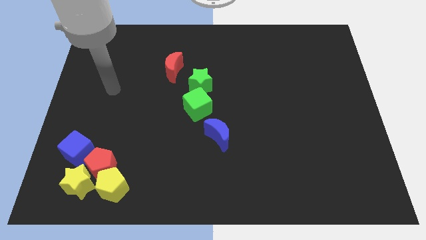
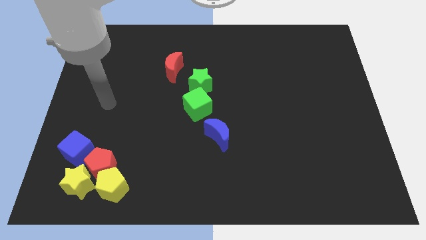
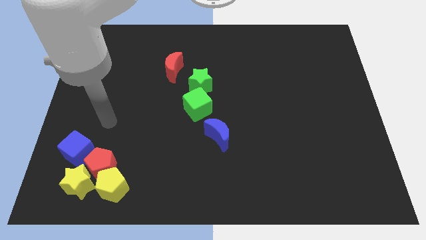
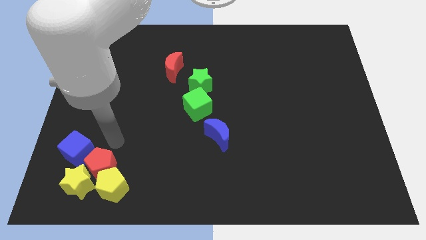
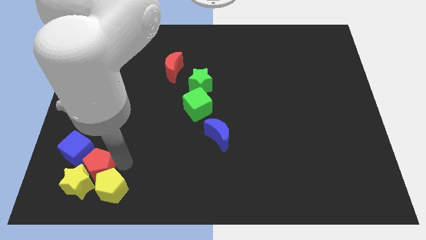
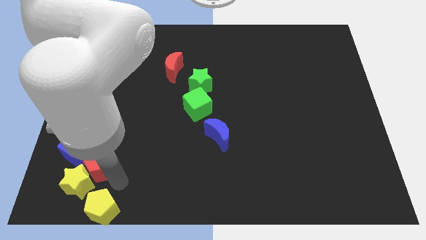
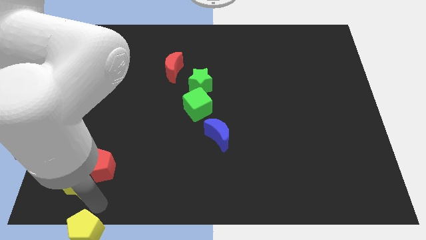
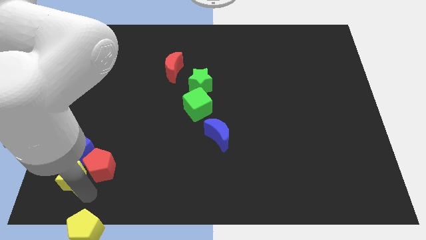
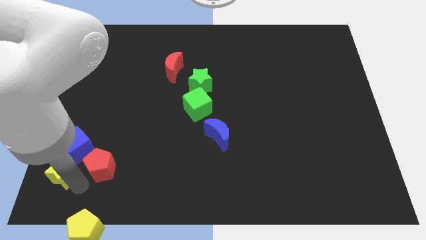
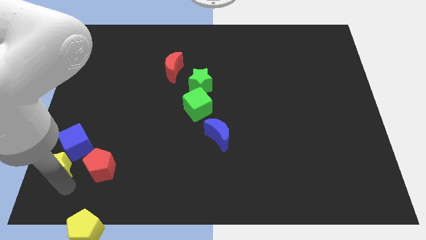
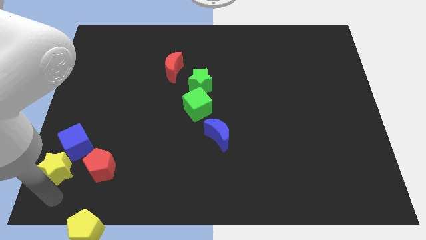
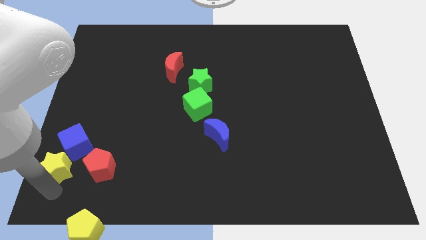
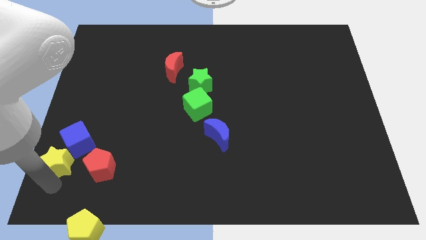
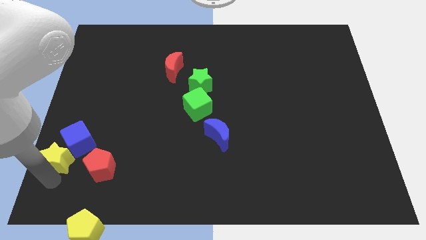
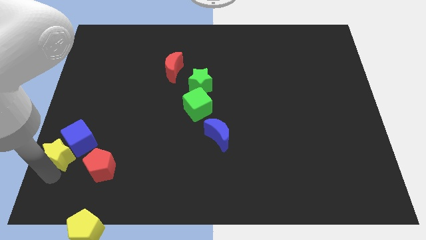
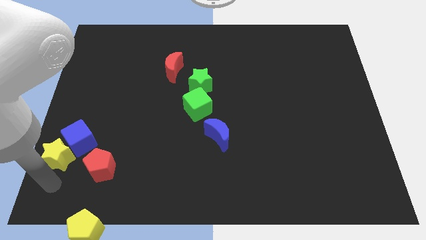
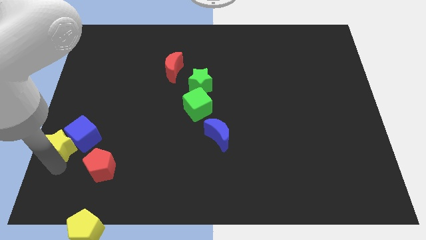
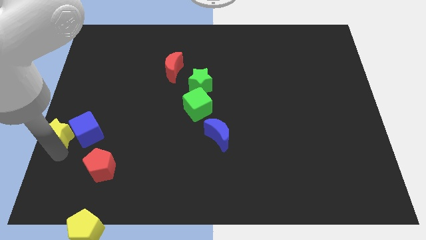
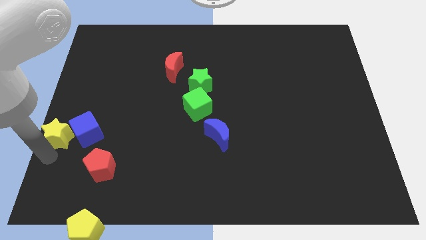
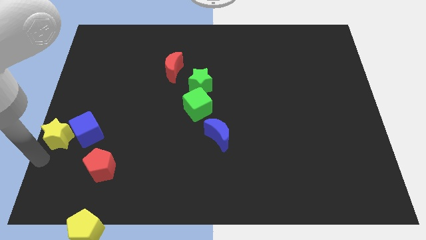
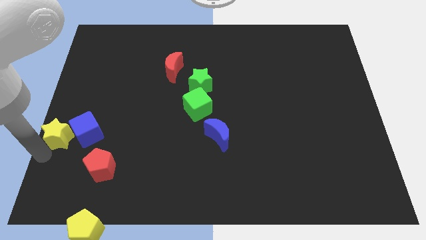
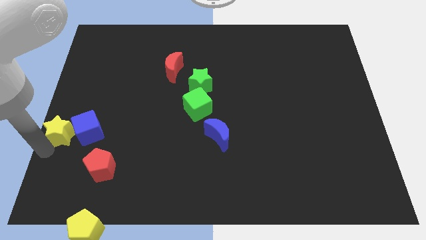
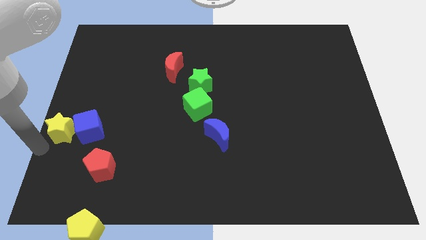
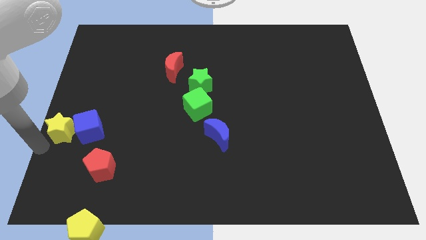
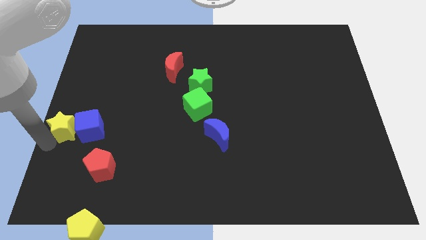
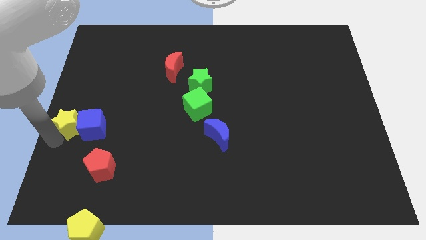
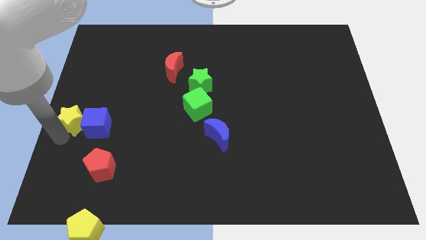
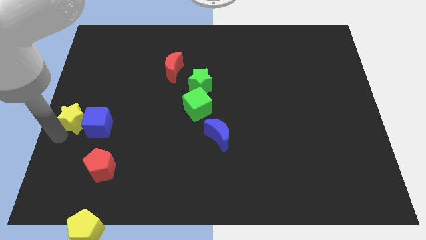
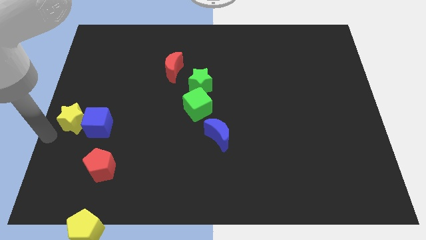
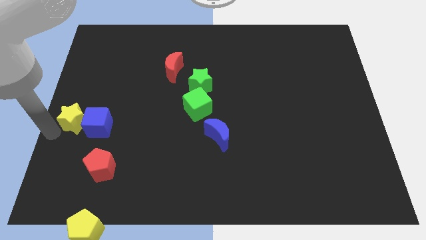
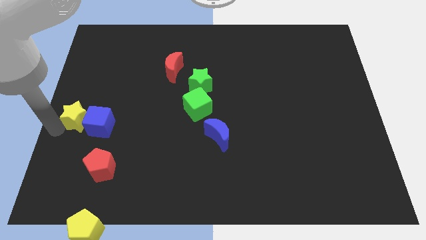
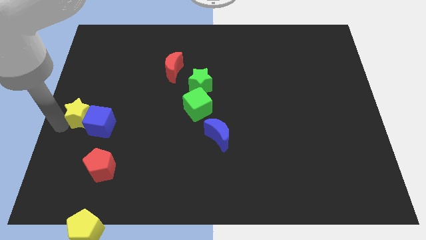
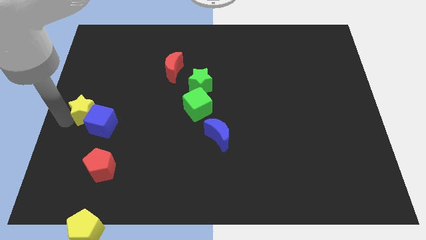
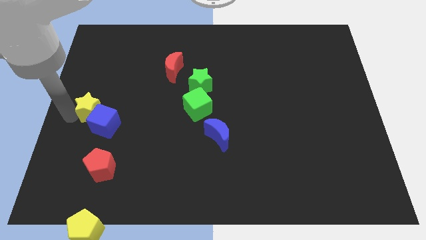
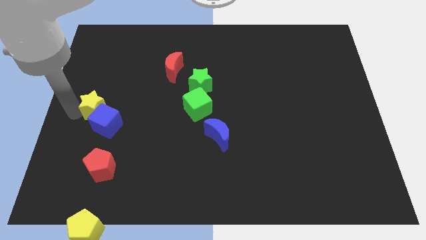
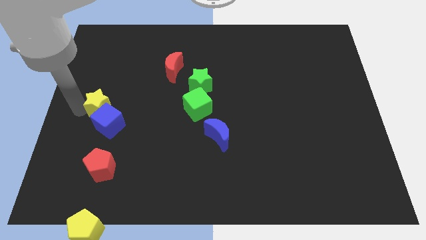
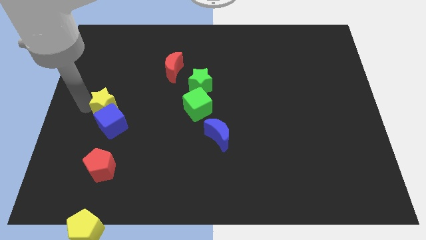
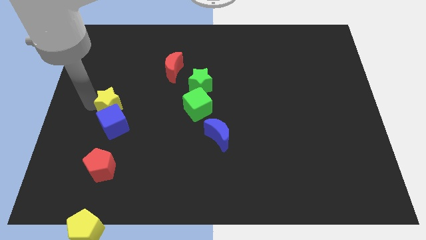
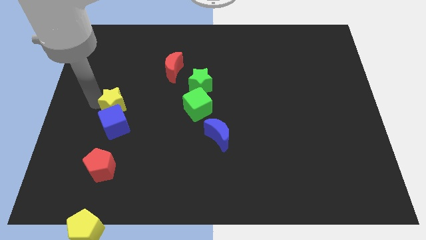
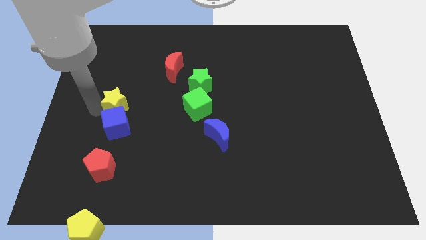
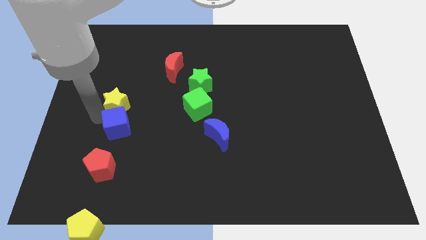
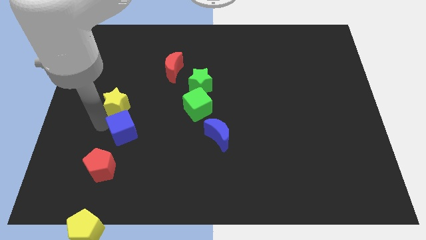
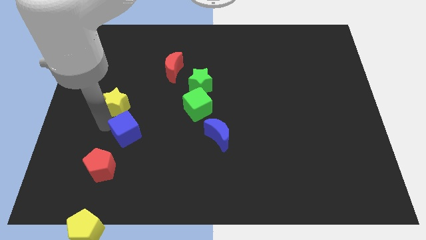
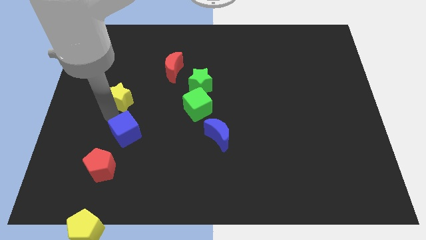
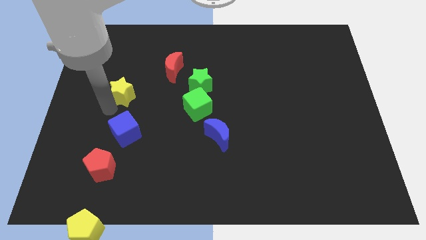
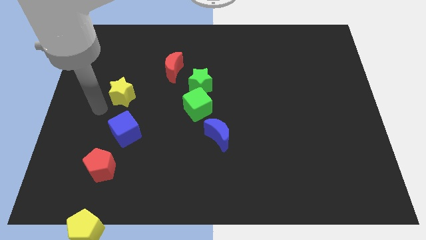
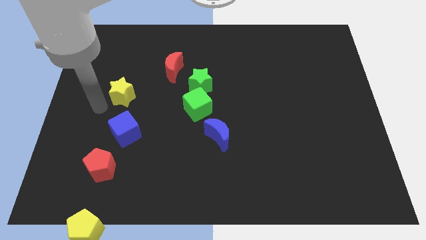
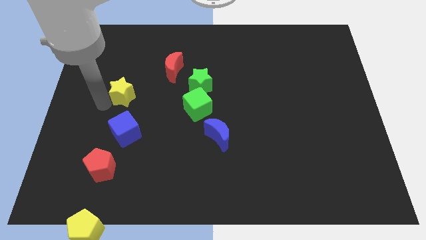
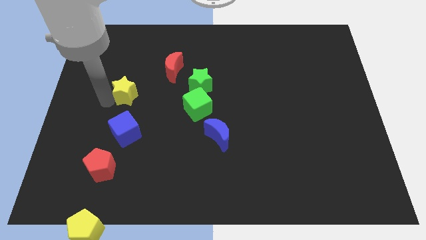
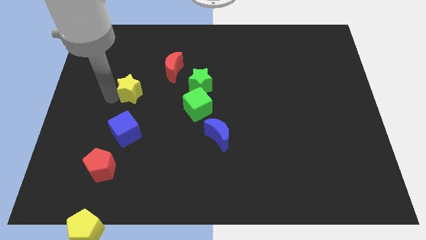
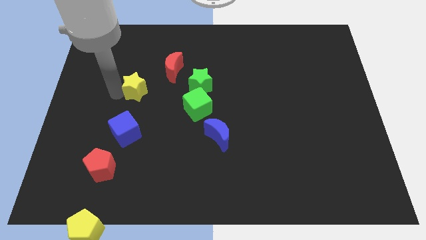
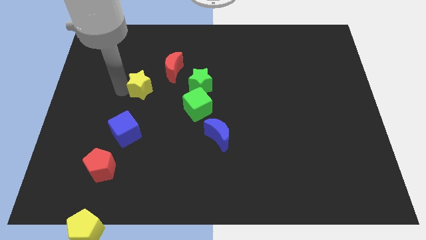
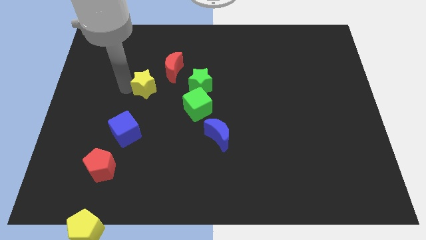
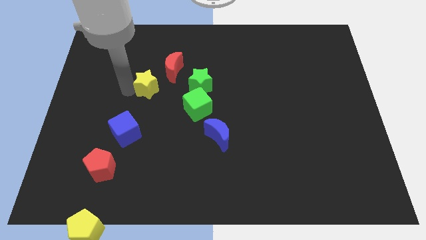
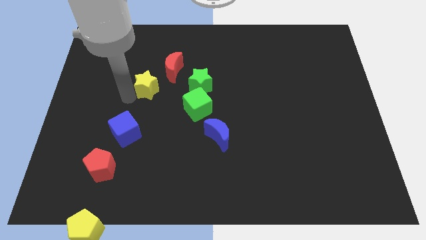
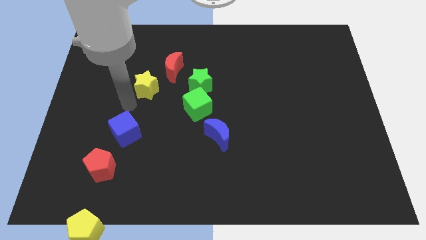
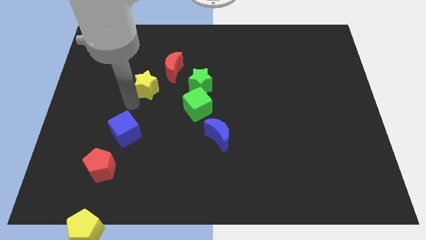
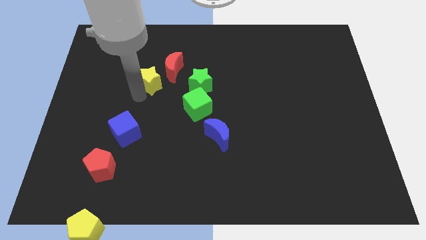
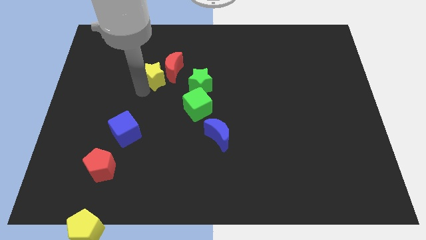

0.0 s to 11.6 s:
put the yellow star next to the red moon

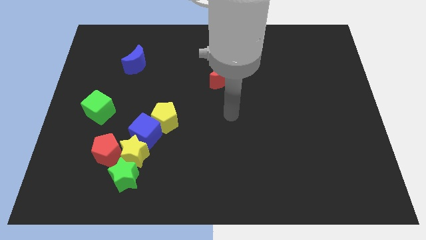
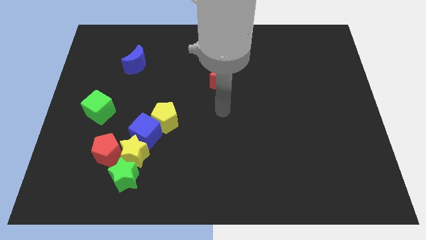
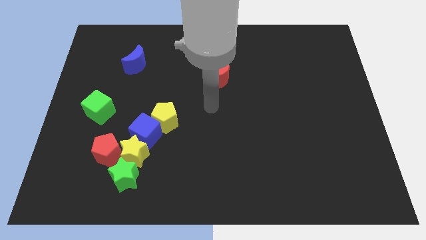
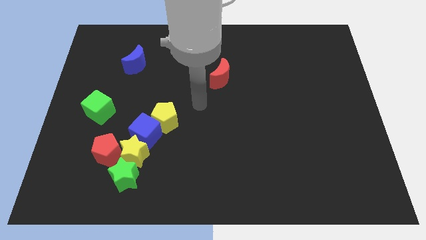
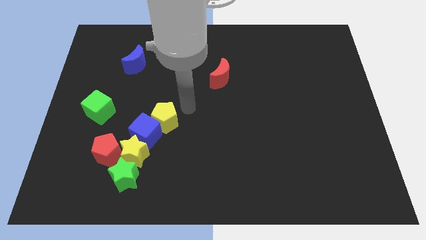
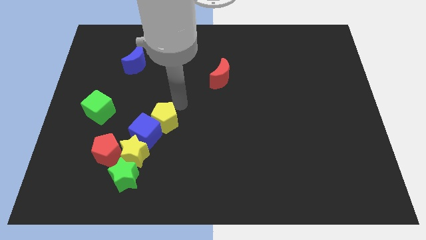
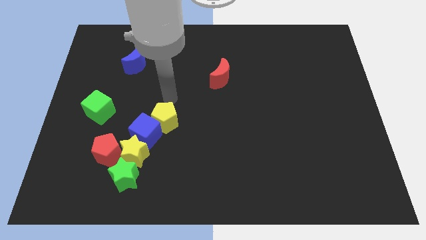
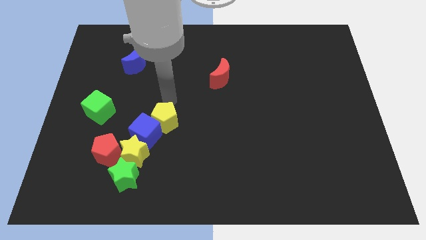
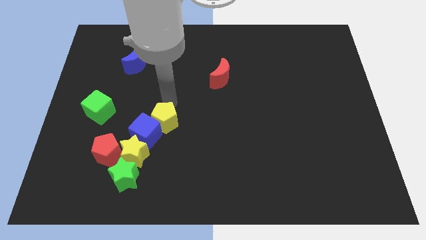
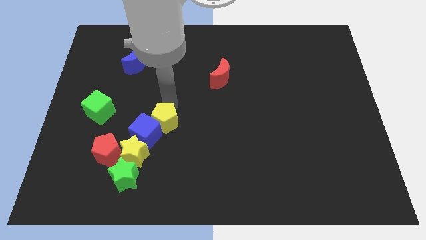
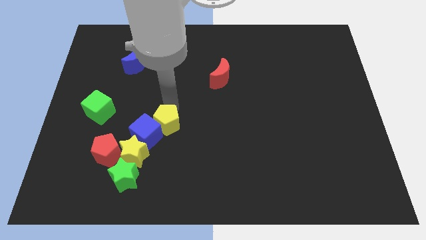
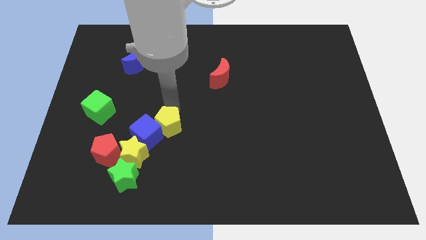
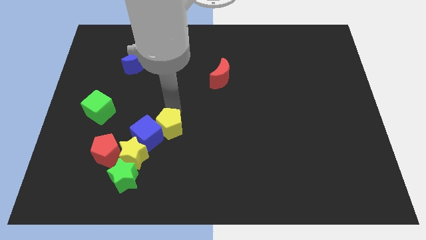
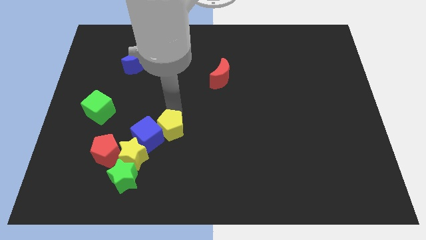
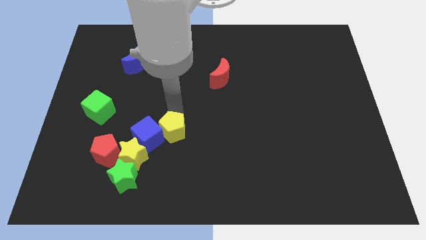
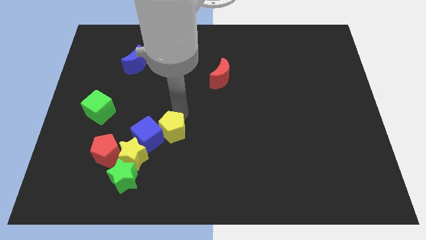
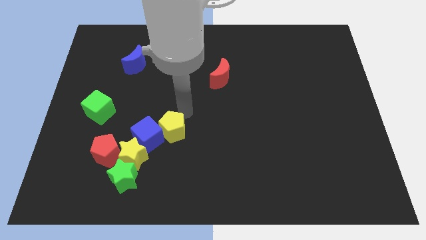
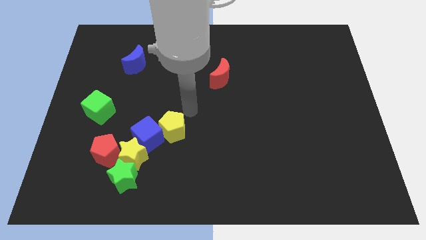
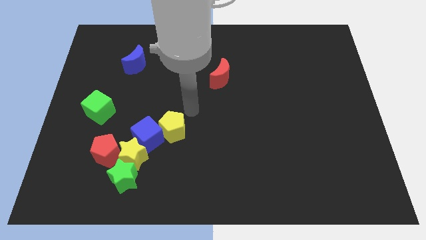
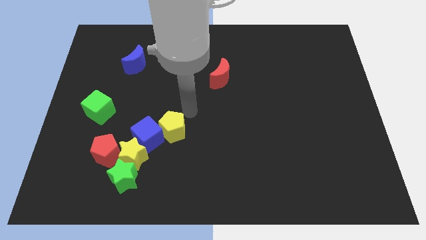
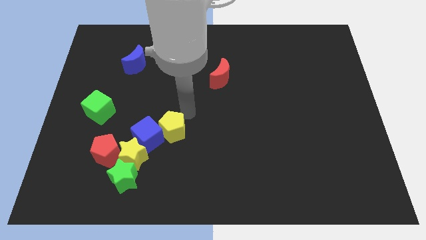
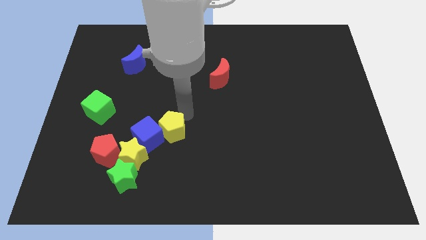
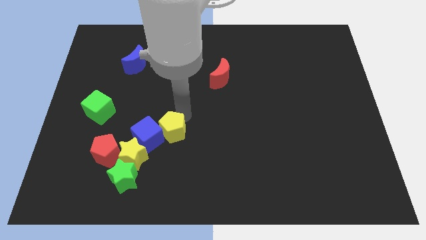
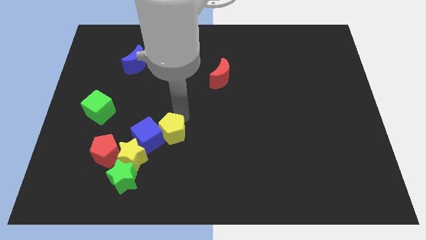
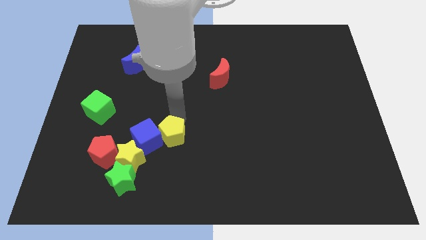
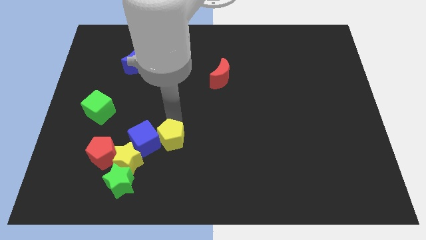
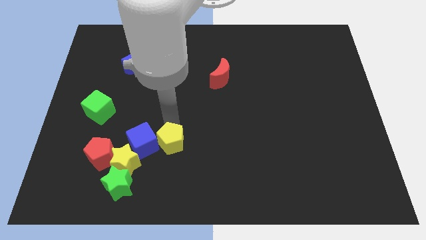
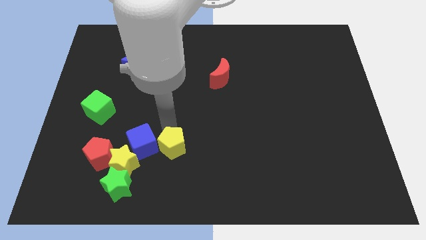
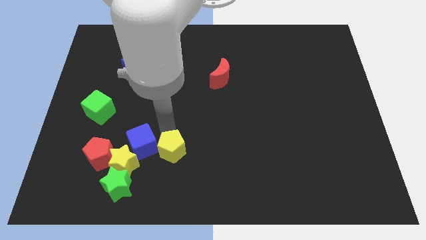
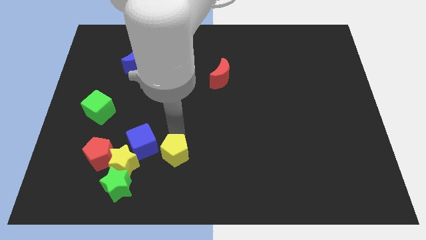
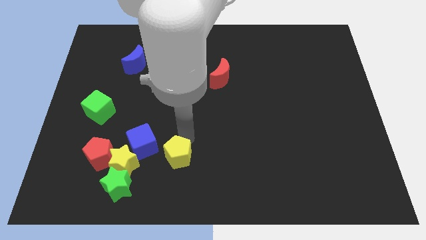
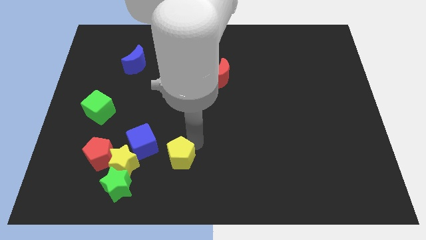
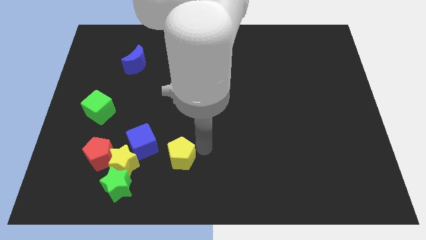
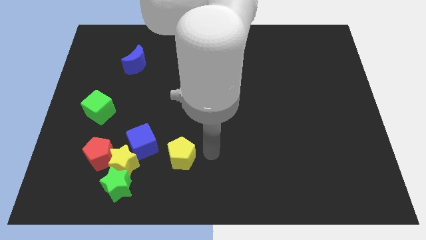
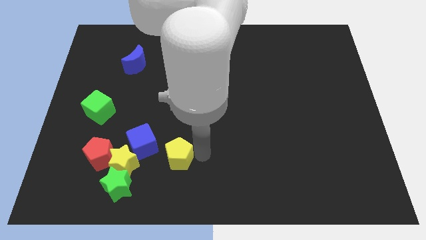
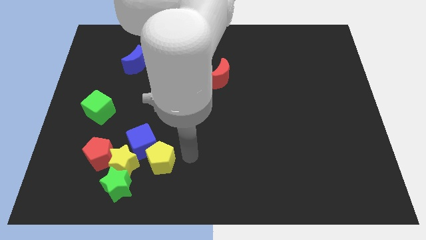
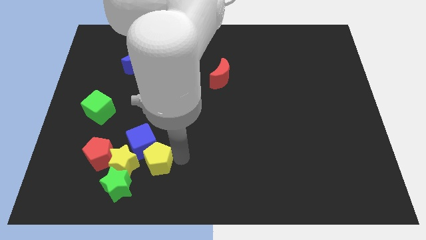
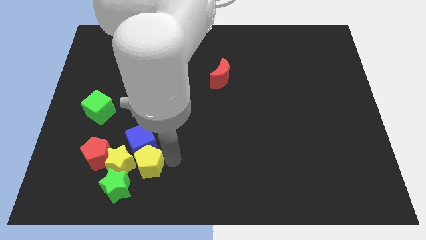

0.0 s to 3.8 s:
slide the yellow pentagon to the yellow star
